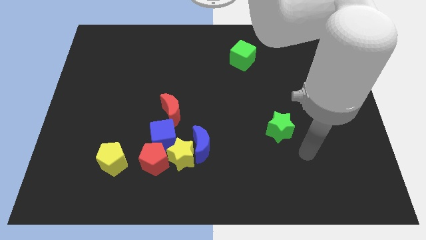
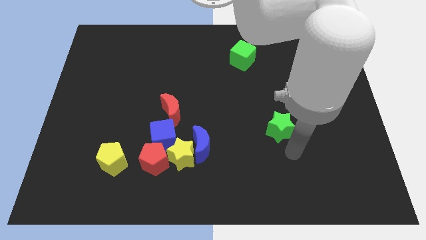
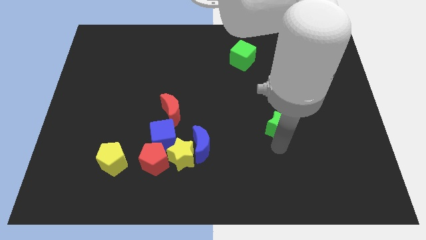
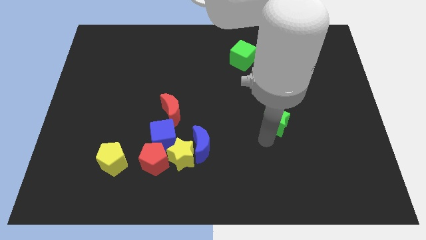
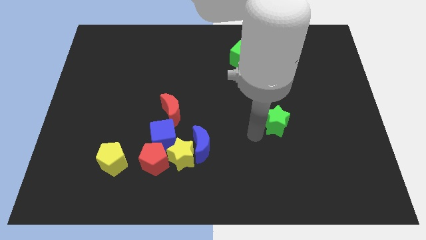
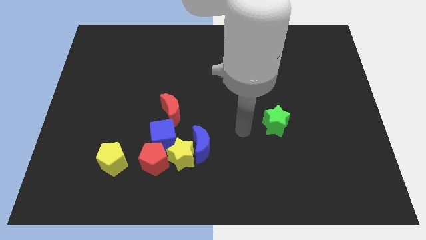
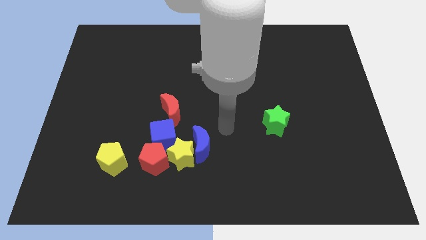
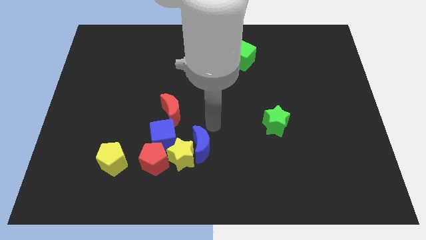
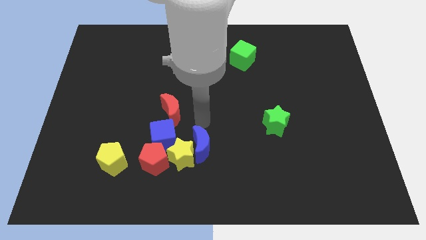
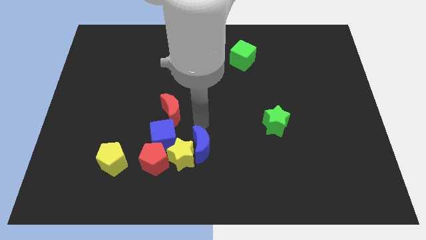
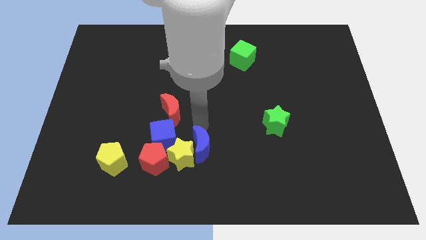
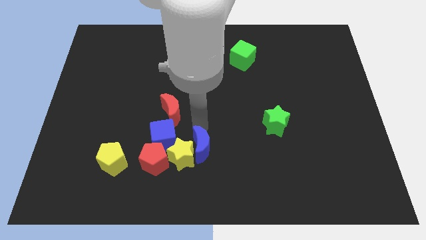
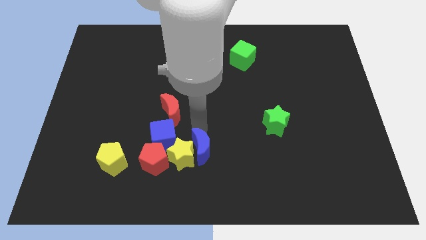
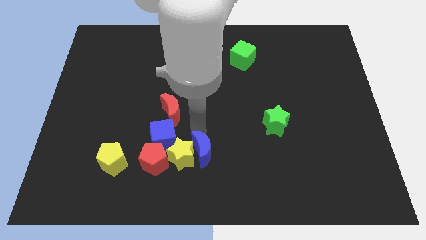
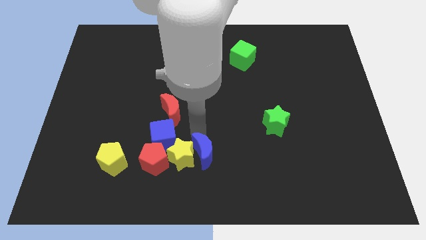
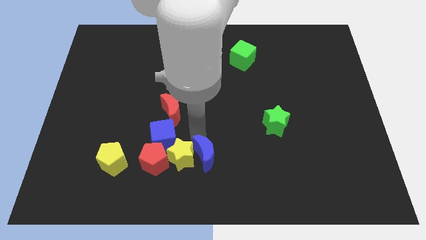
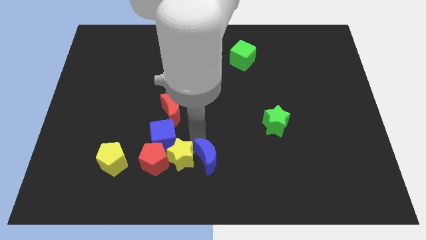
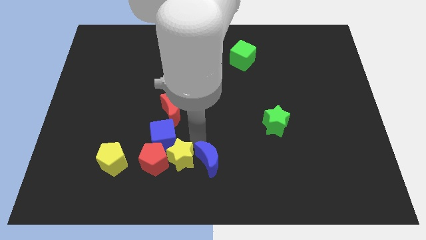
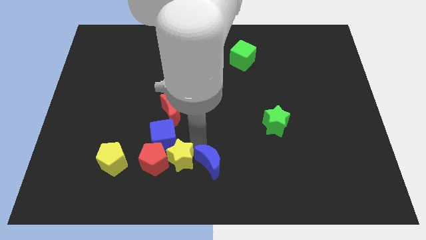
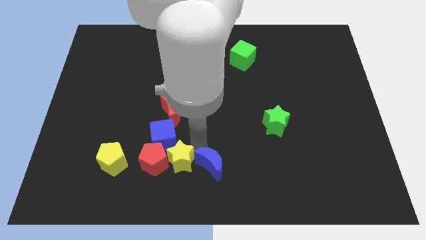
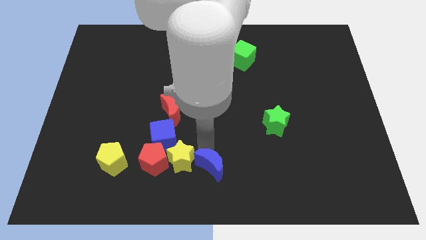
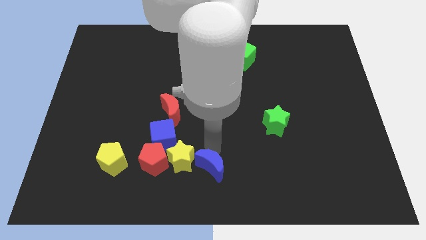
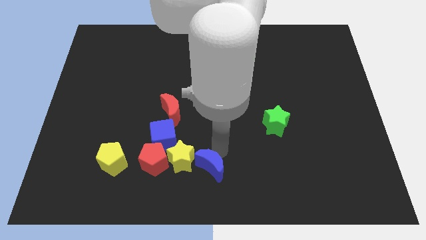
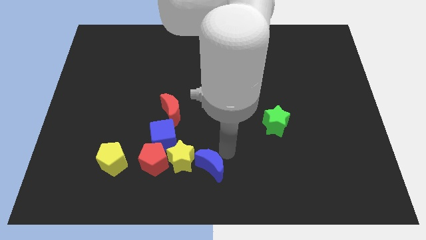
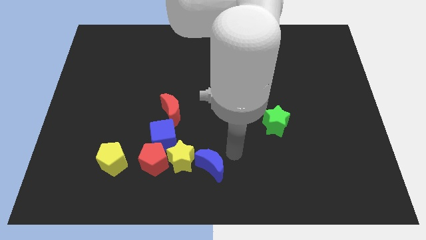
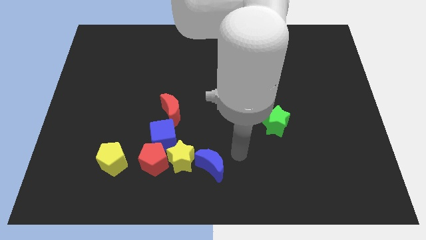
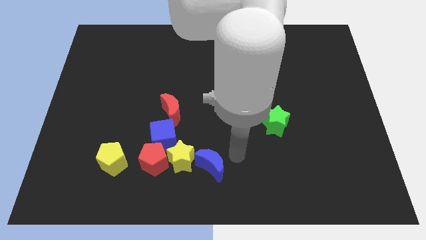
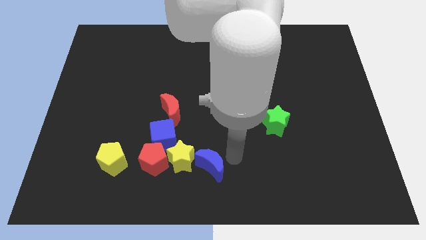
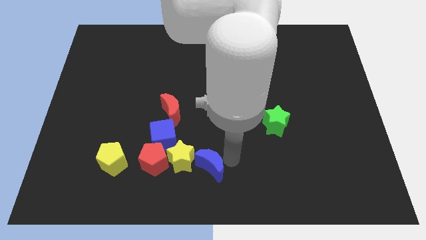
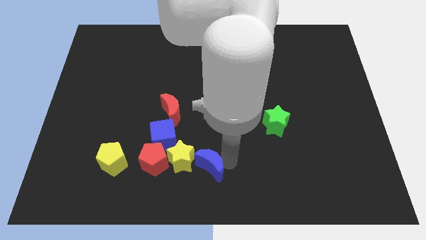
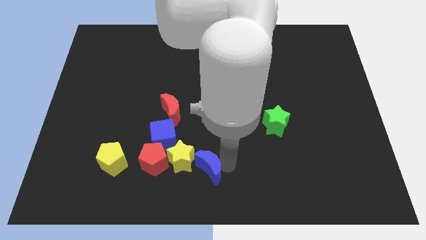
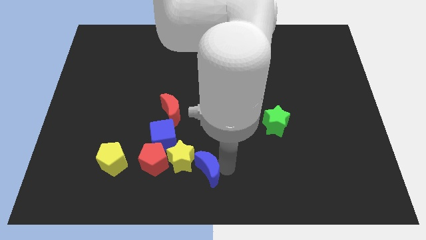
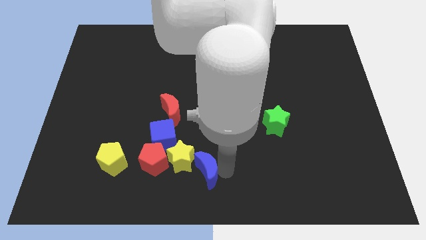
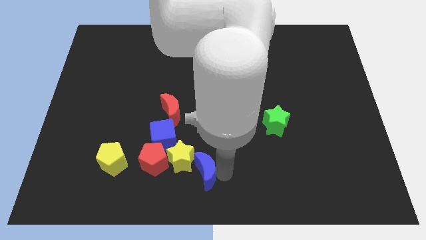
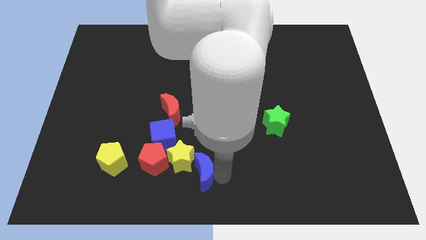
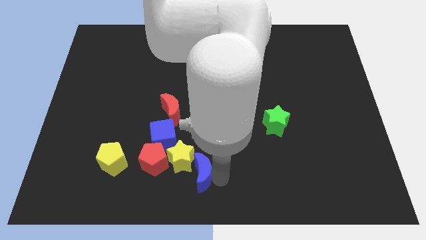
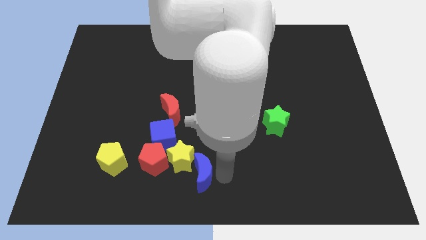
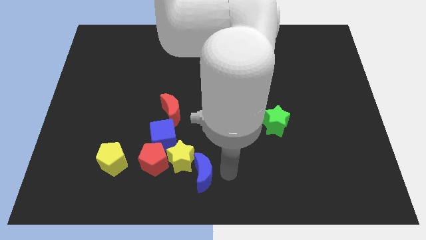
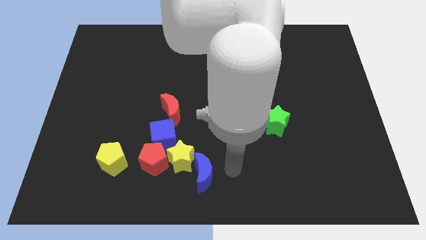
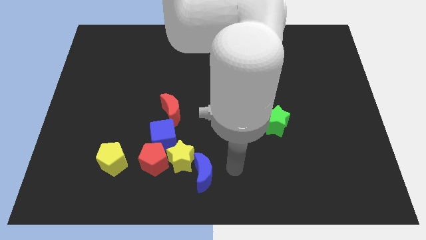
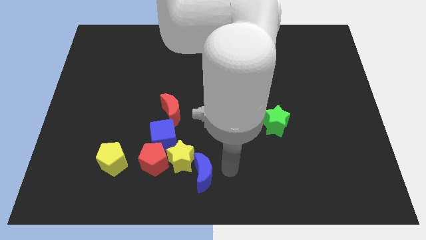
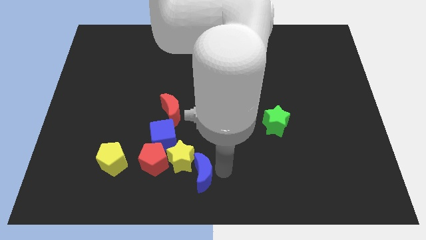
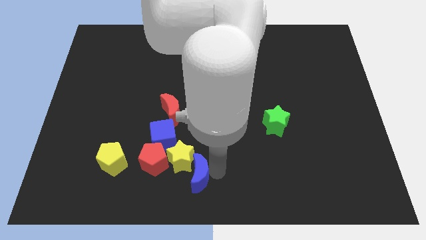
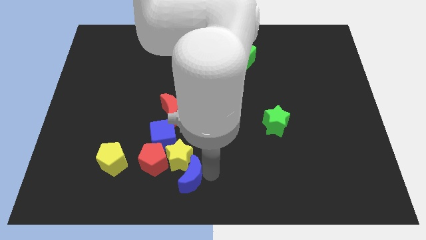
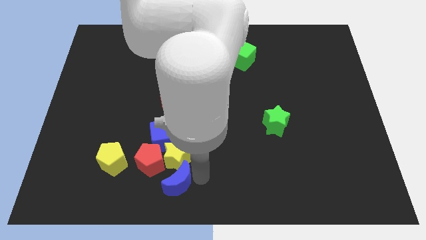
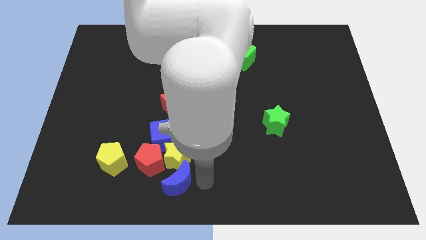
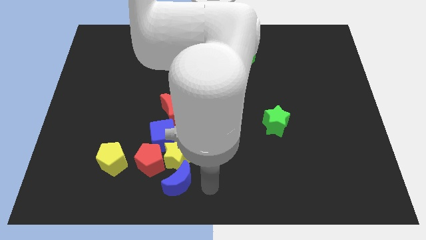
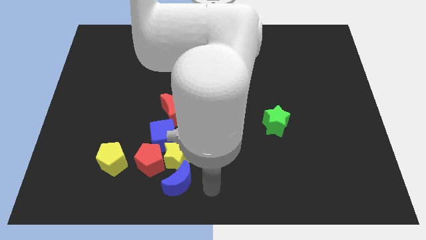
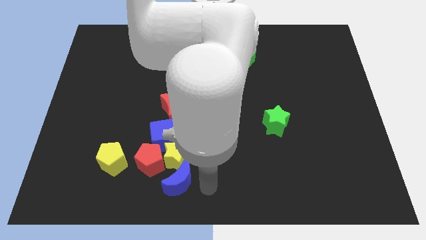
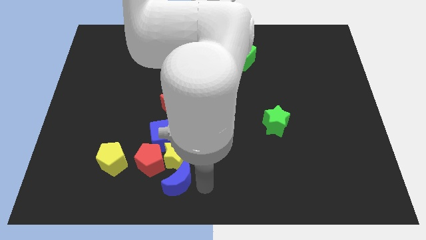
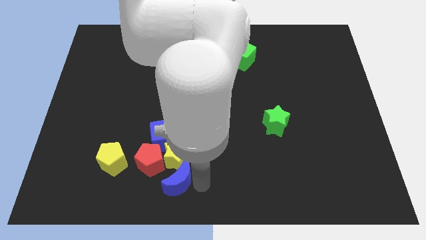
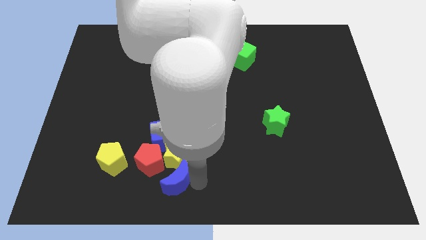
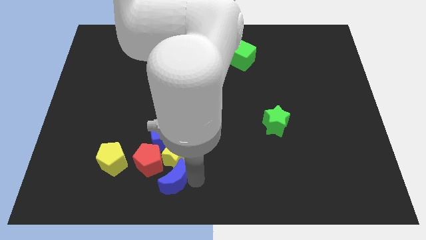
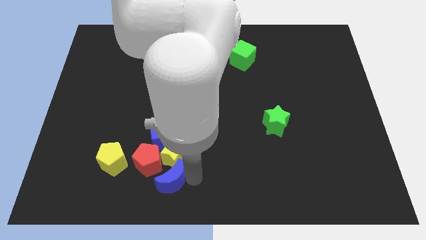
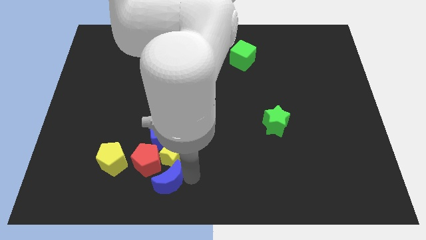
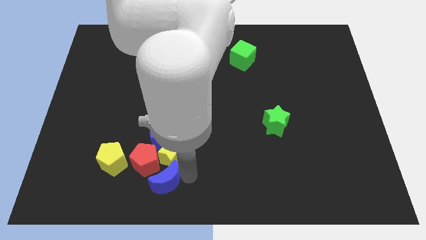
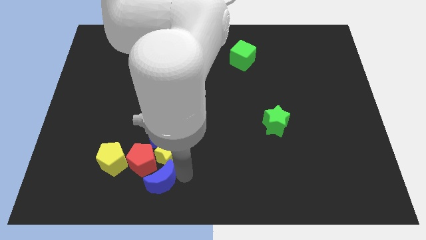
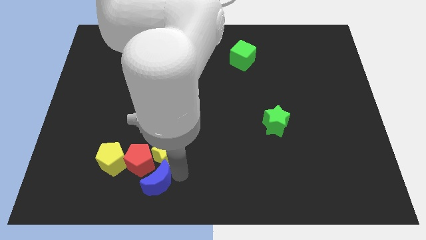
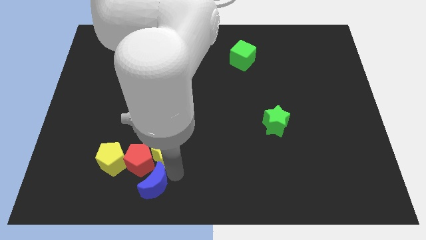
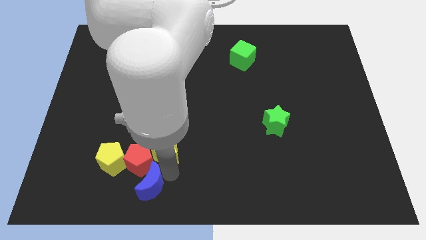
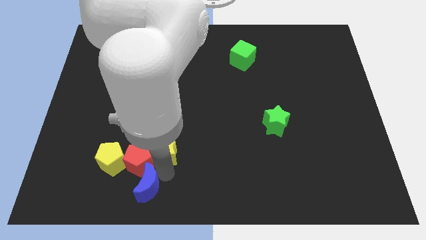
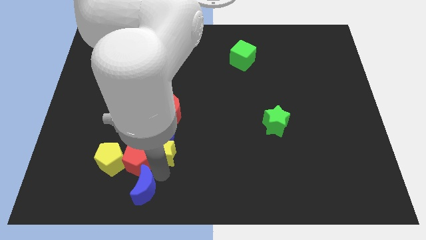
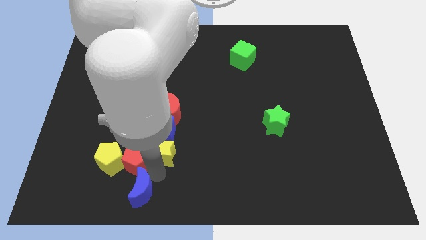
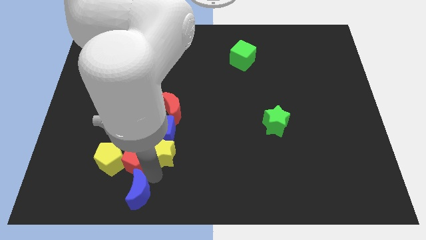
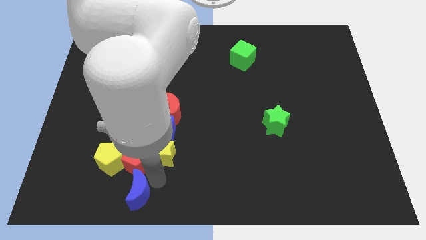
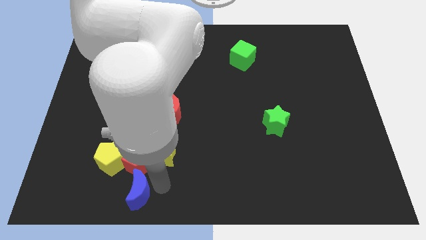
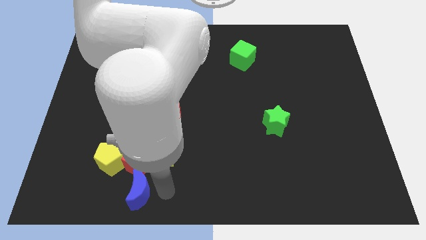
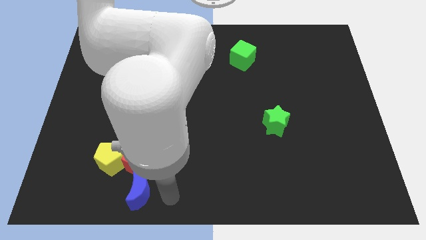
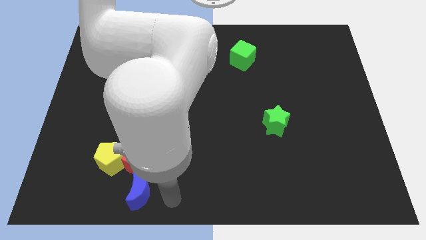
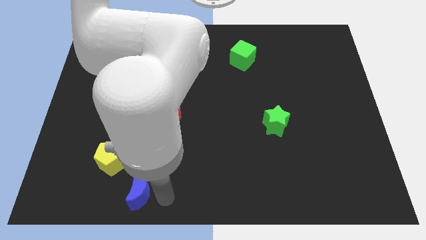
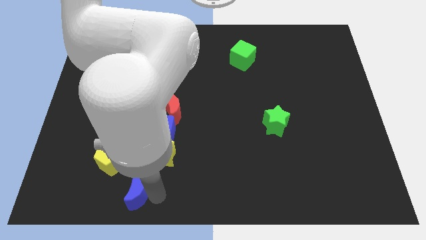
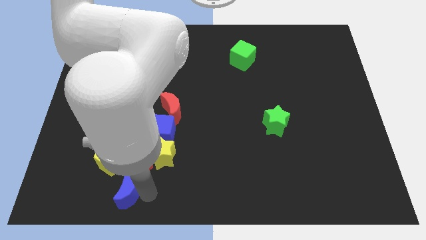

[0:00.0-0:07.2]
slide the blue moon to the bottom left of the red pentagon
